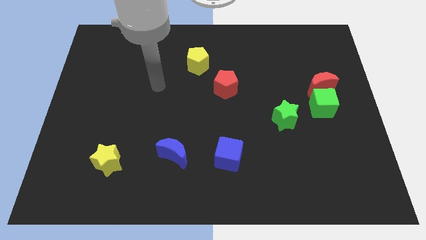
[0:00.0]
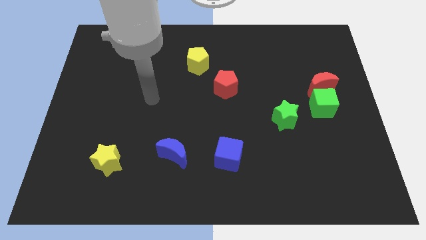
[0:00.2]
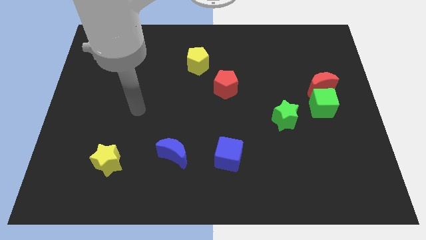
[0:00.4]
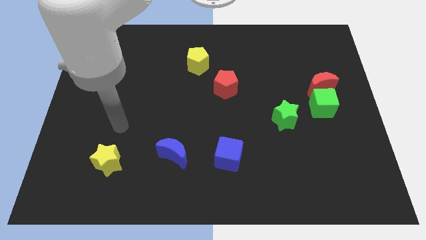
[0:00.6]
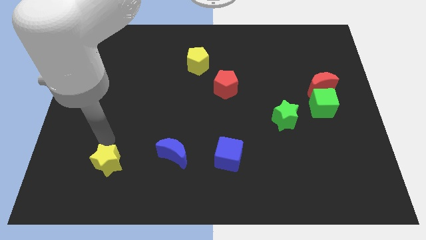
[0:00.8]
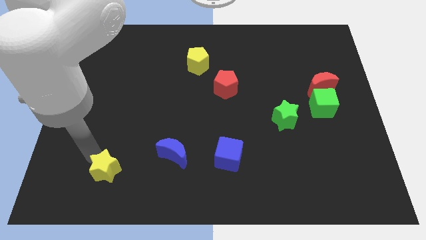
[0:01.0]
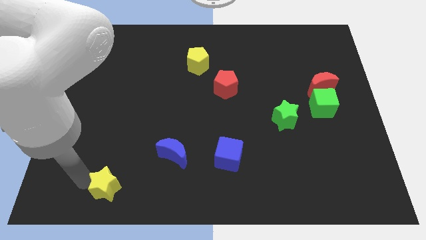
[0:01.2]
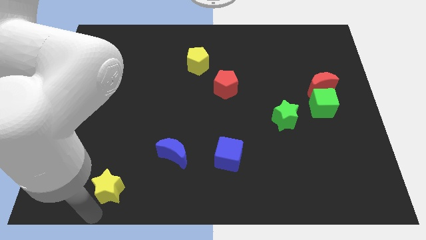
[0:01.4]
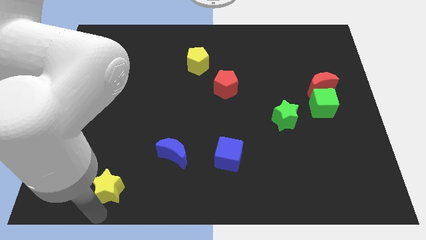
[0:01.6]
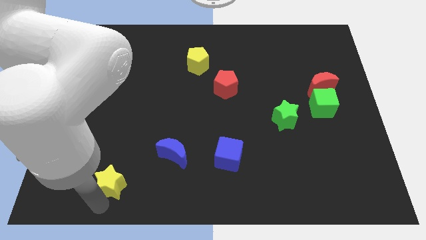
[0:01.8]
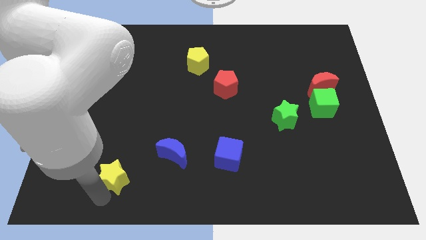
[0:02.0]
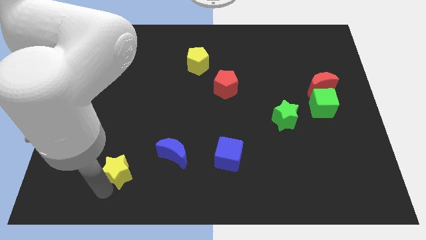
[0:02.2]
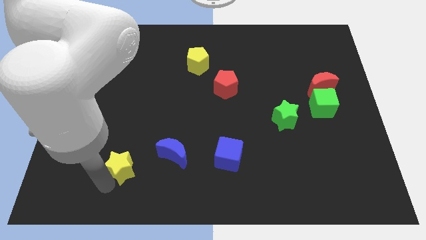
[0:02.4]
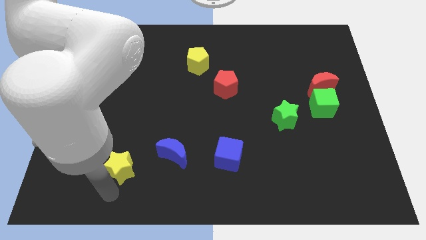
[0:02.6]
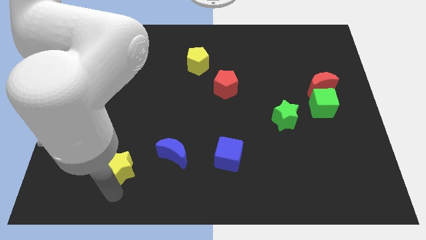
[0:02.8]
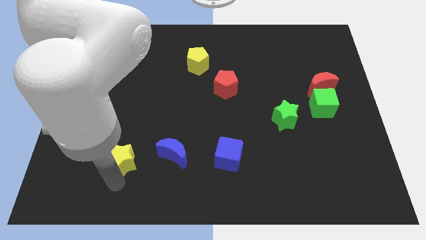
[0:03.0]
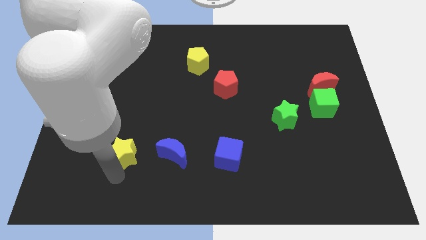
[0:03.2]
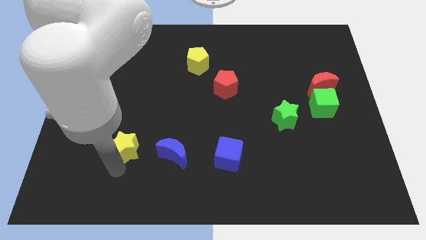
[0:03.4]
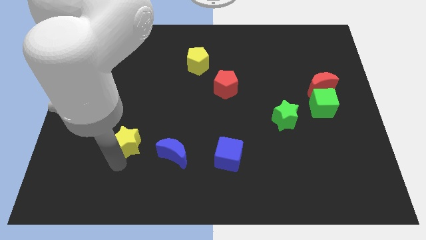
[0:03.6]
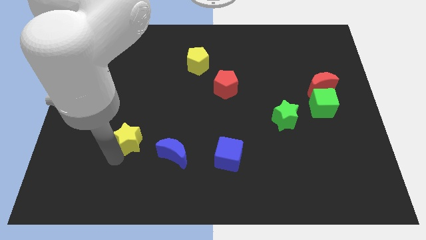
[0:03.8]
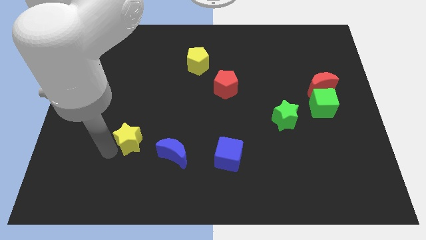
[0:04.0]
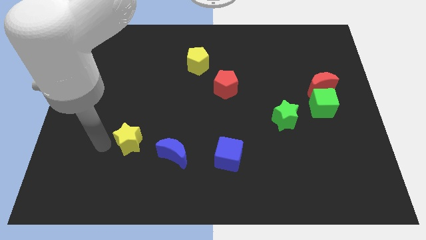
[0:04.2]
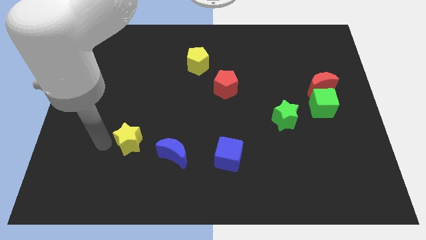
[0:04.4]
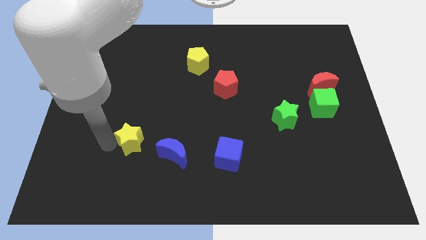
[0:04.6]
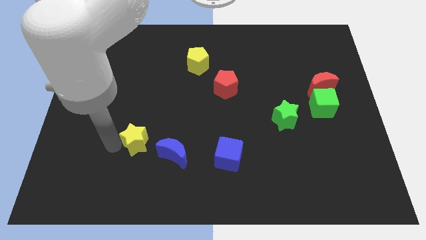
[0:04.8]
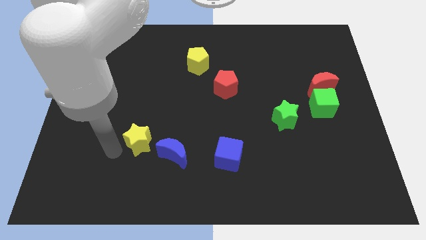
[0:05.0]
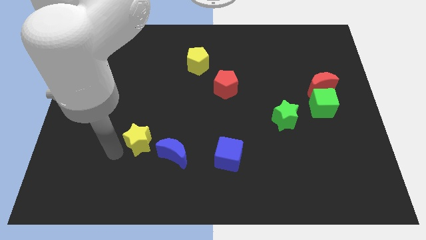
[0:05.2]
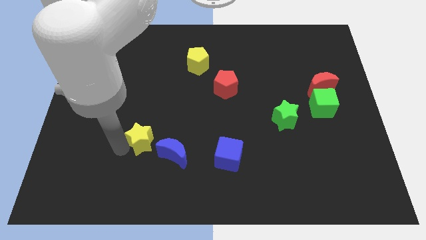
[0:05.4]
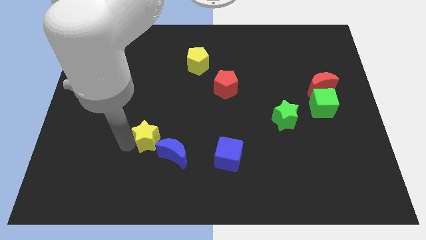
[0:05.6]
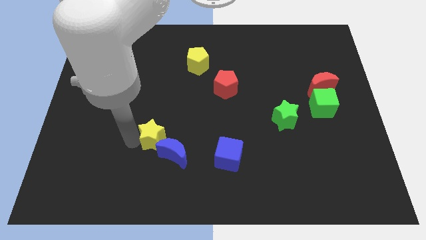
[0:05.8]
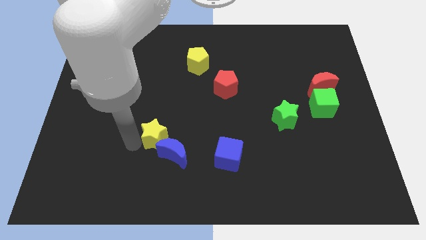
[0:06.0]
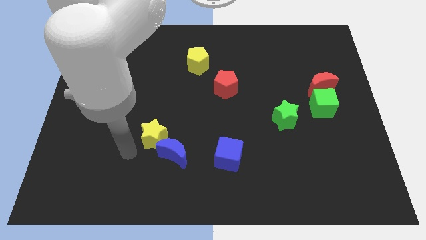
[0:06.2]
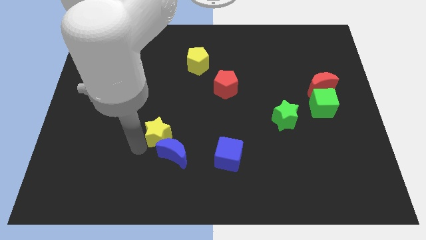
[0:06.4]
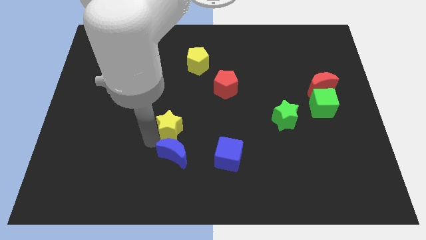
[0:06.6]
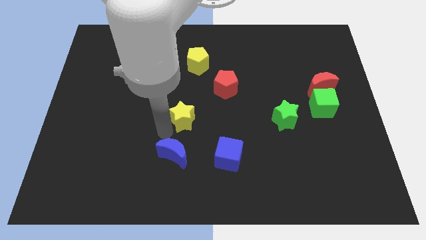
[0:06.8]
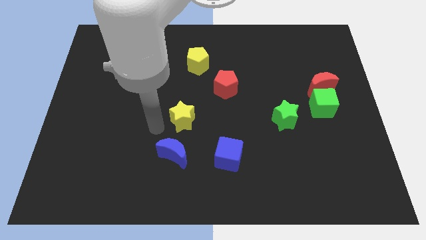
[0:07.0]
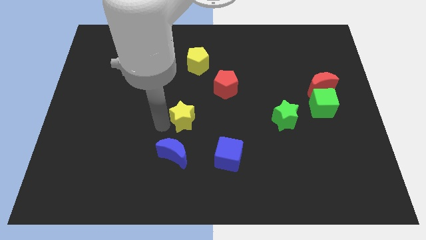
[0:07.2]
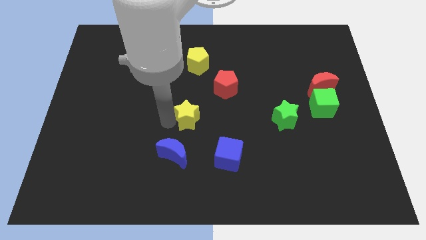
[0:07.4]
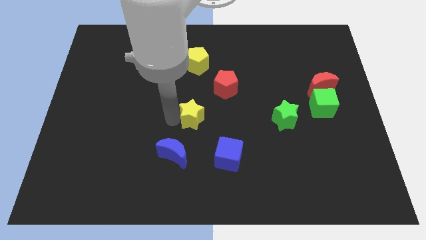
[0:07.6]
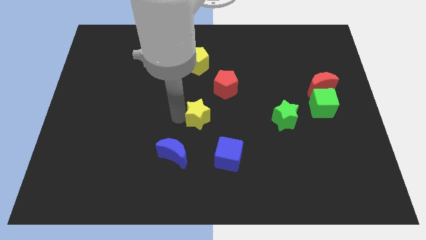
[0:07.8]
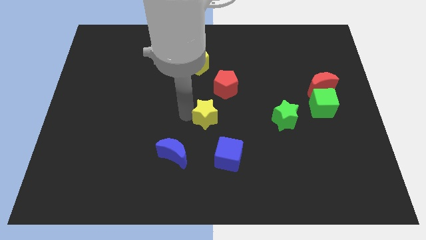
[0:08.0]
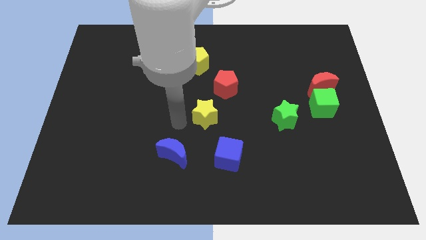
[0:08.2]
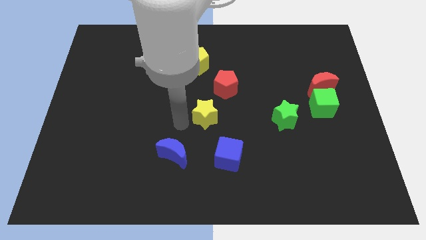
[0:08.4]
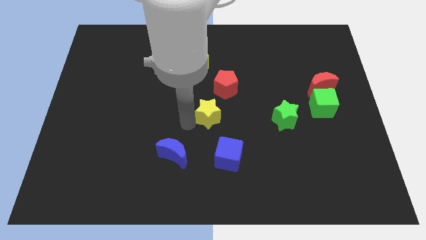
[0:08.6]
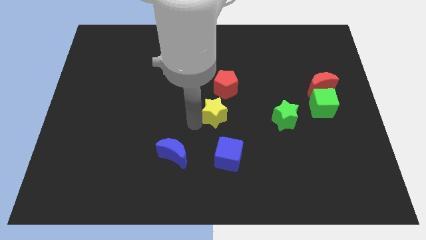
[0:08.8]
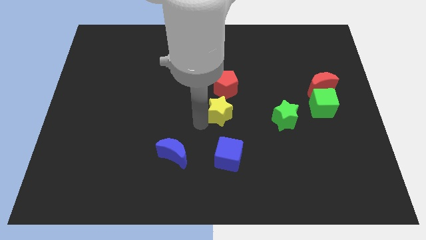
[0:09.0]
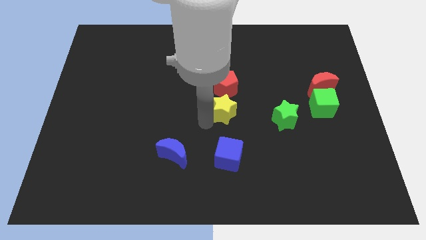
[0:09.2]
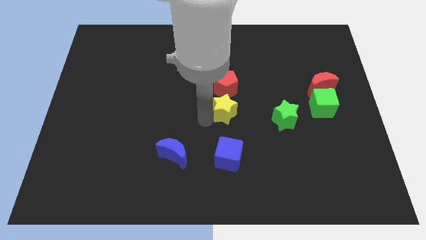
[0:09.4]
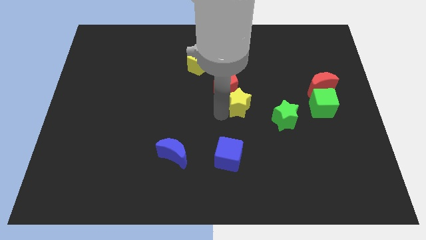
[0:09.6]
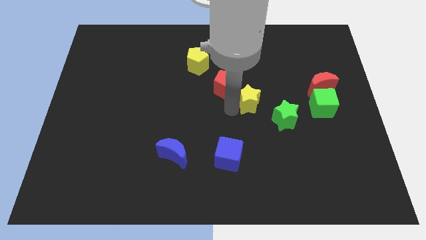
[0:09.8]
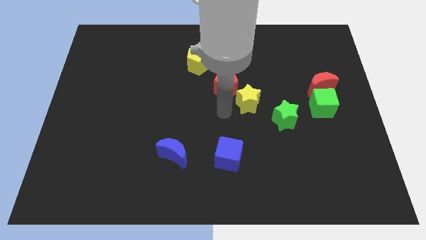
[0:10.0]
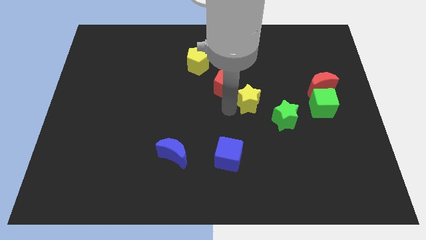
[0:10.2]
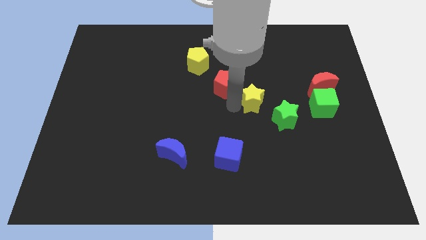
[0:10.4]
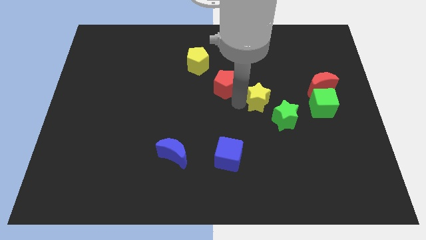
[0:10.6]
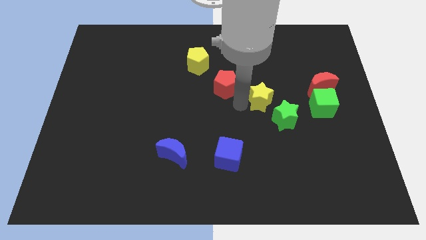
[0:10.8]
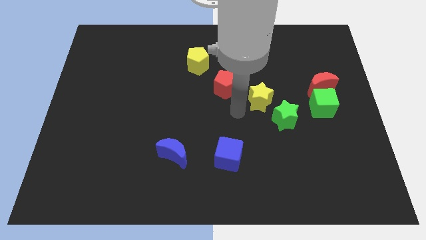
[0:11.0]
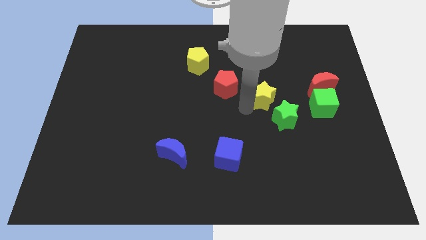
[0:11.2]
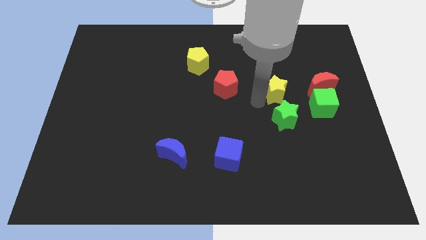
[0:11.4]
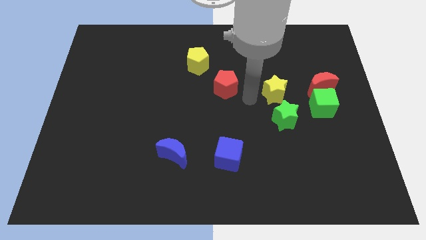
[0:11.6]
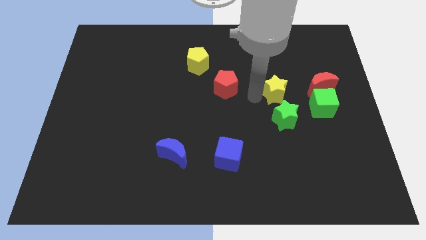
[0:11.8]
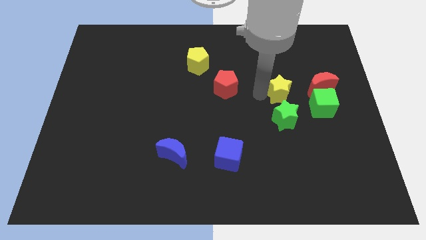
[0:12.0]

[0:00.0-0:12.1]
put the yellow star to the top left of the green cube

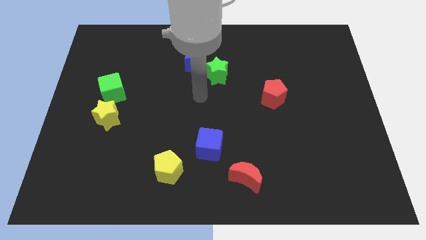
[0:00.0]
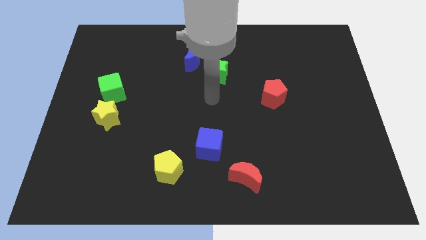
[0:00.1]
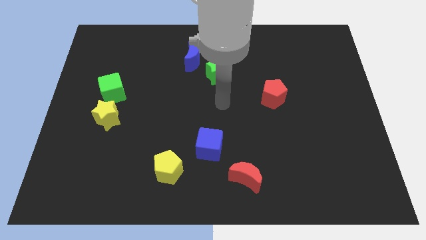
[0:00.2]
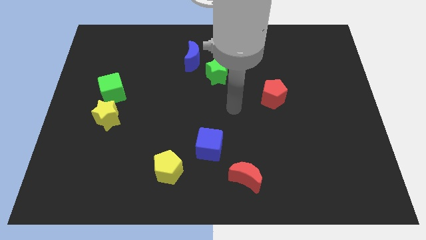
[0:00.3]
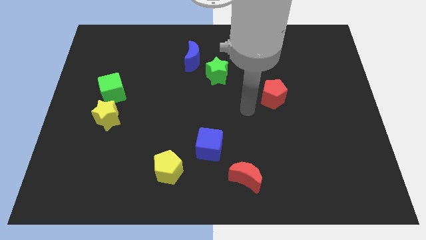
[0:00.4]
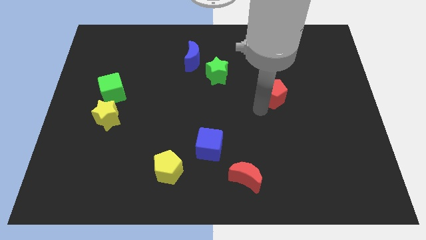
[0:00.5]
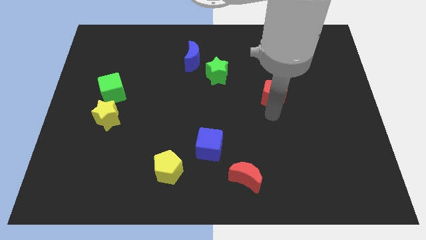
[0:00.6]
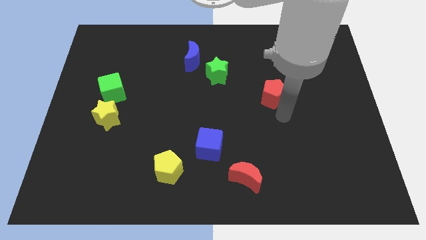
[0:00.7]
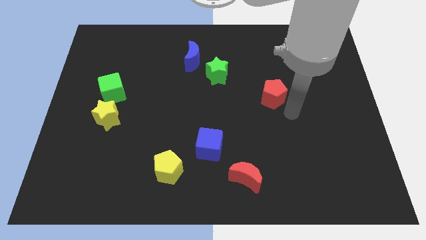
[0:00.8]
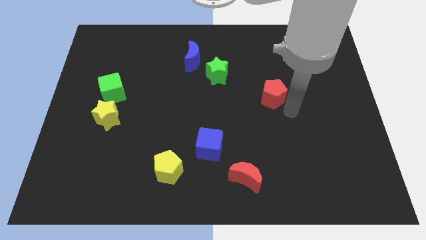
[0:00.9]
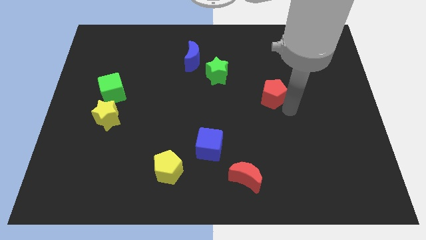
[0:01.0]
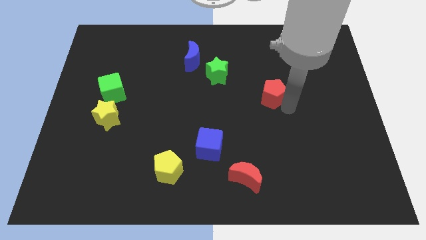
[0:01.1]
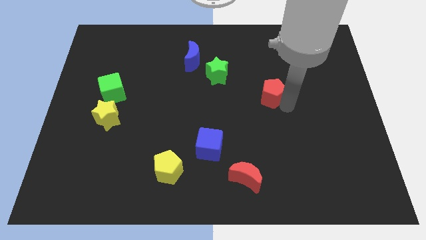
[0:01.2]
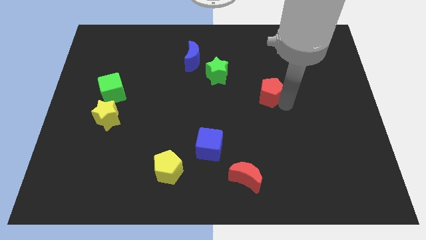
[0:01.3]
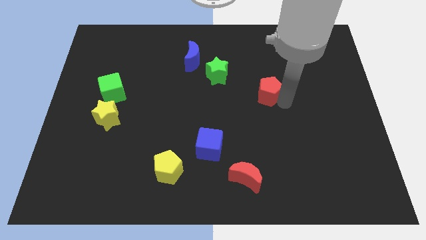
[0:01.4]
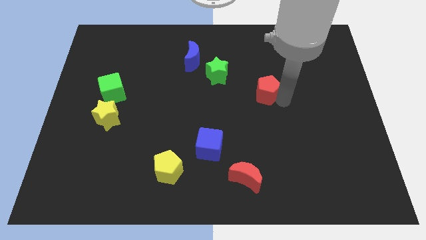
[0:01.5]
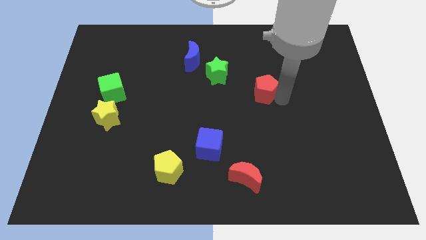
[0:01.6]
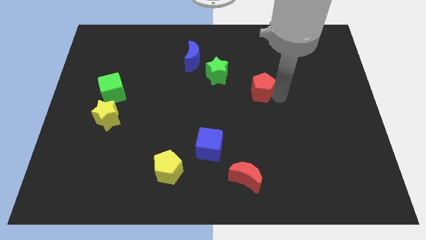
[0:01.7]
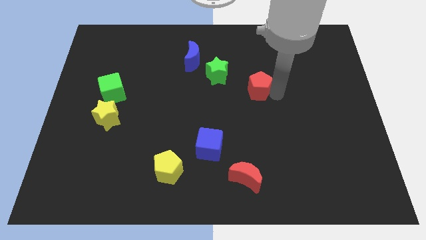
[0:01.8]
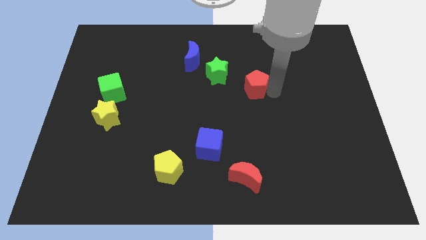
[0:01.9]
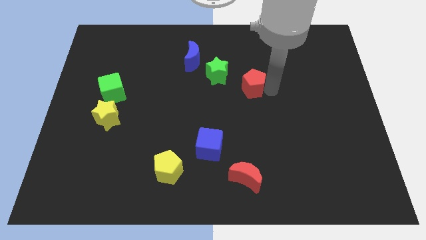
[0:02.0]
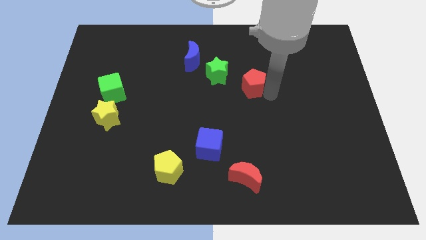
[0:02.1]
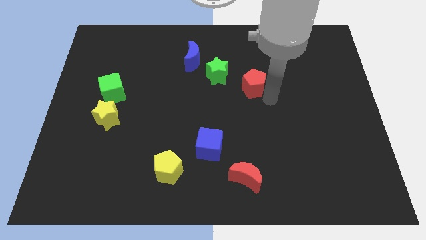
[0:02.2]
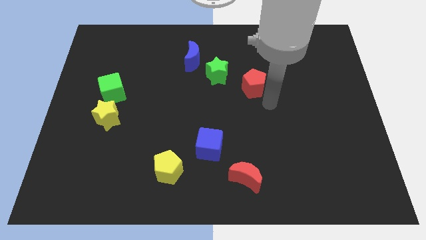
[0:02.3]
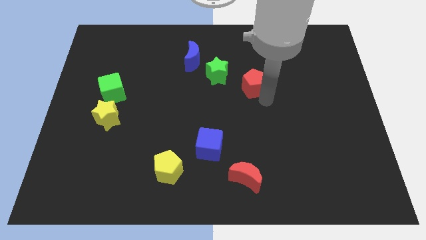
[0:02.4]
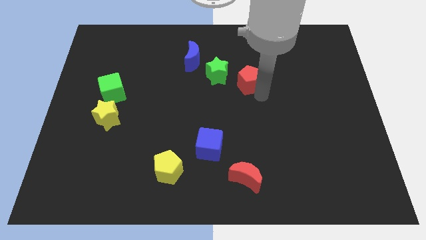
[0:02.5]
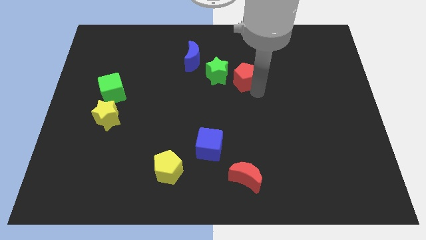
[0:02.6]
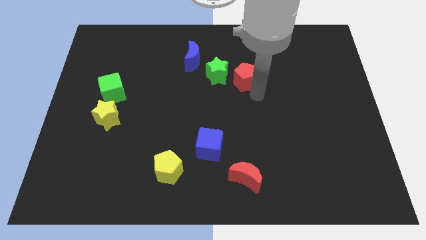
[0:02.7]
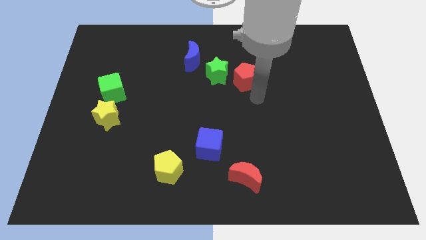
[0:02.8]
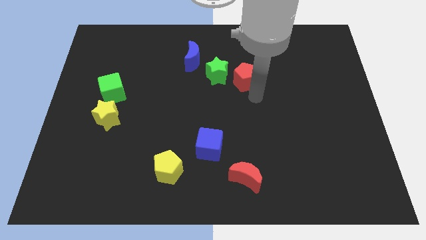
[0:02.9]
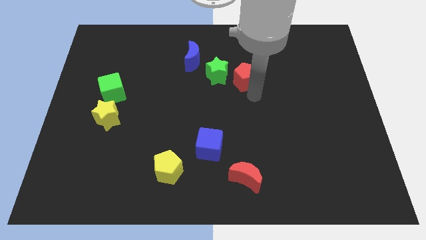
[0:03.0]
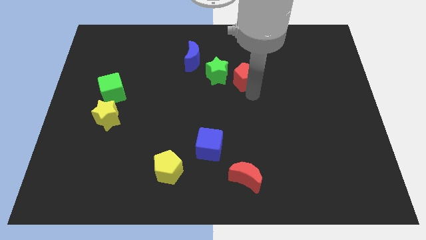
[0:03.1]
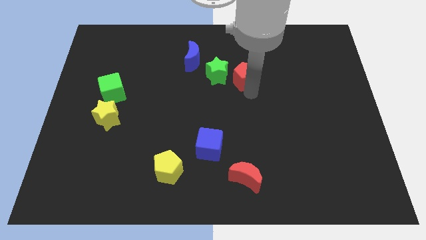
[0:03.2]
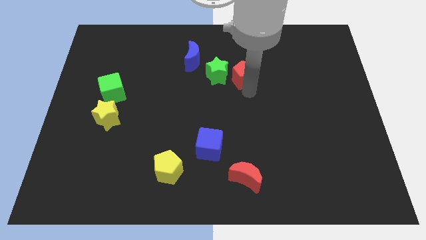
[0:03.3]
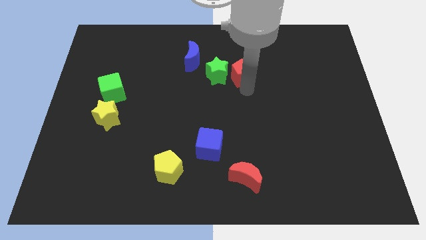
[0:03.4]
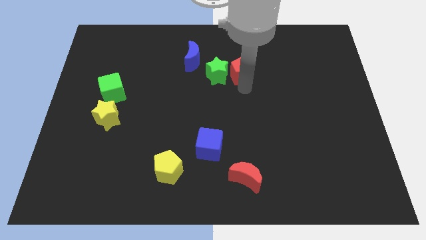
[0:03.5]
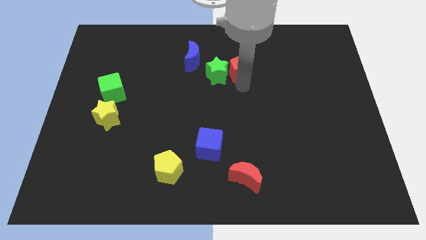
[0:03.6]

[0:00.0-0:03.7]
move the red pentagon right of the blue moon
